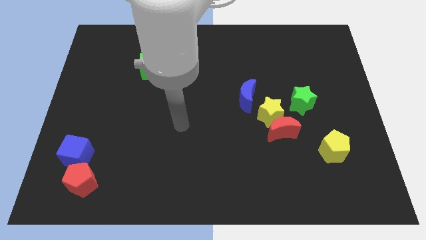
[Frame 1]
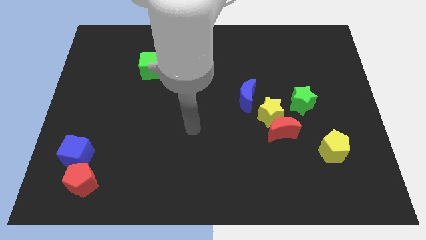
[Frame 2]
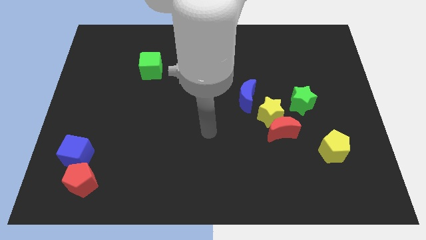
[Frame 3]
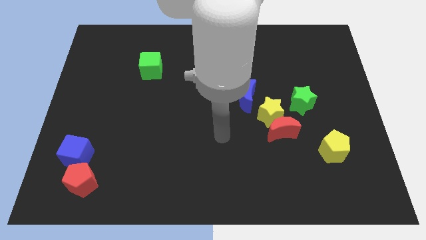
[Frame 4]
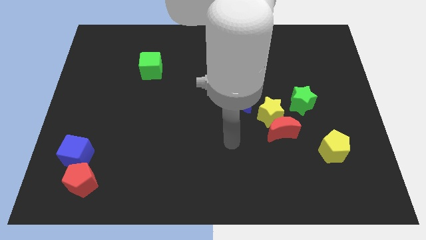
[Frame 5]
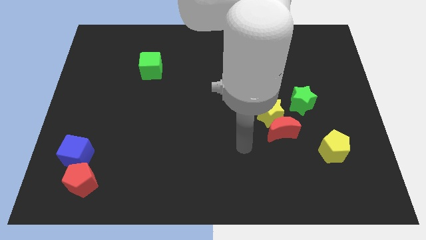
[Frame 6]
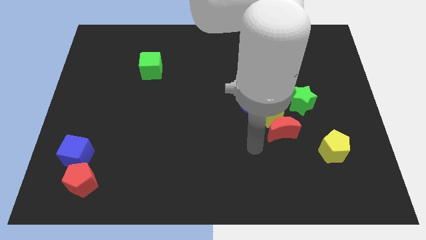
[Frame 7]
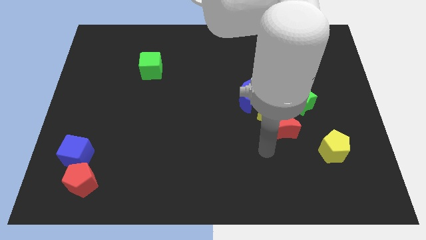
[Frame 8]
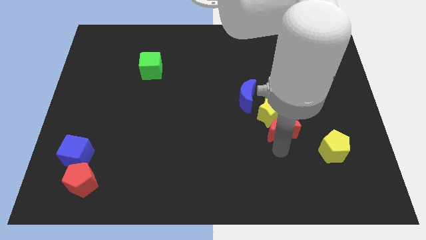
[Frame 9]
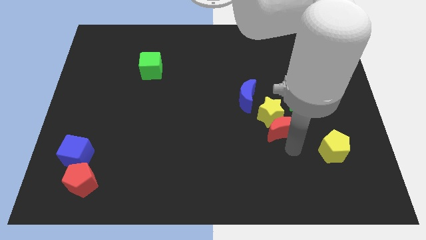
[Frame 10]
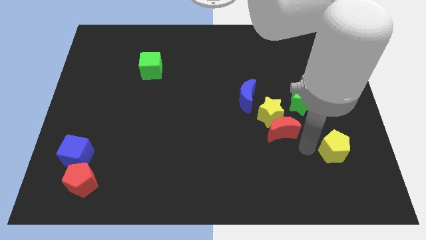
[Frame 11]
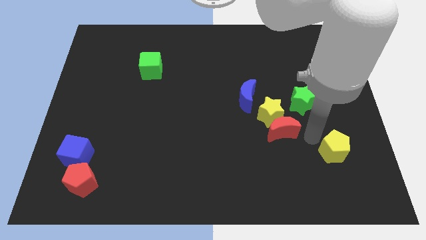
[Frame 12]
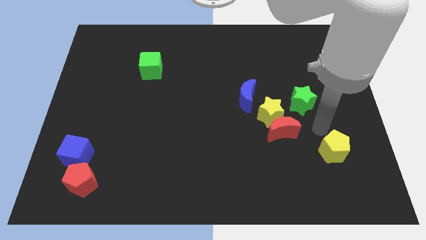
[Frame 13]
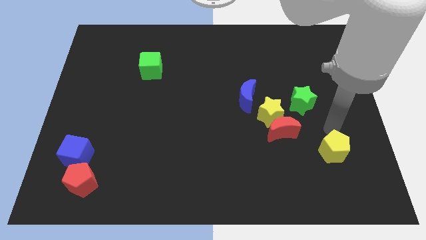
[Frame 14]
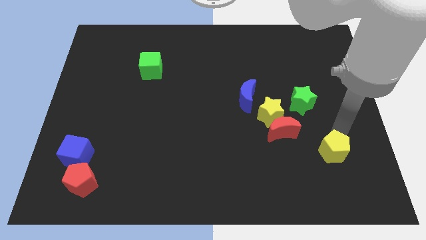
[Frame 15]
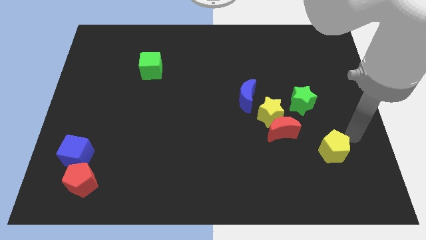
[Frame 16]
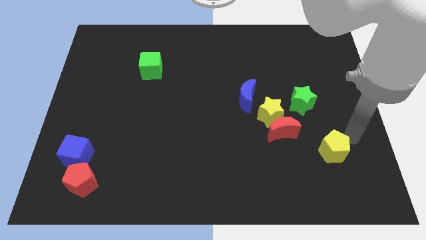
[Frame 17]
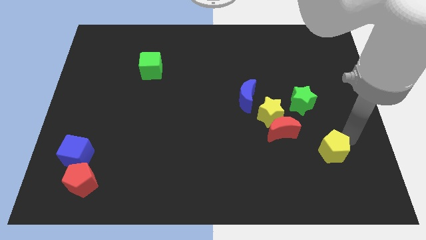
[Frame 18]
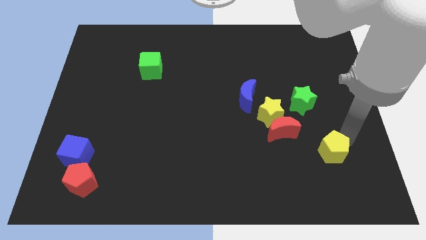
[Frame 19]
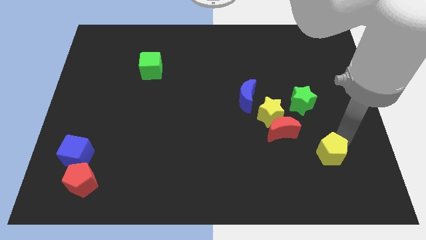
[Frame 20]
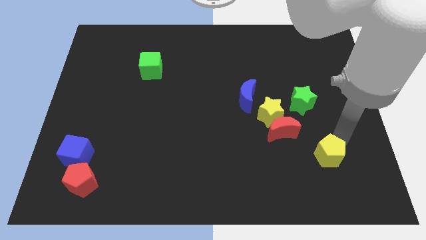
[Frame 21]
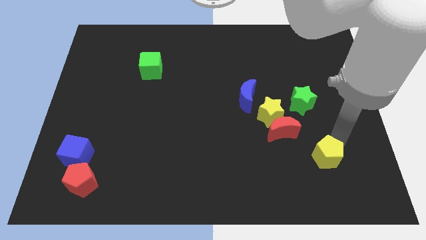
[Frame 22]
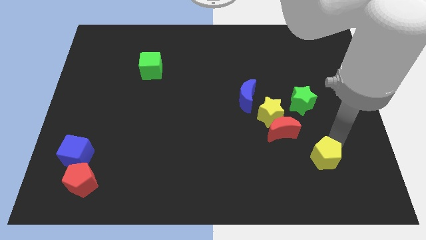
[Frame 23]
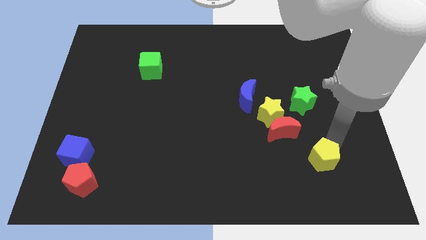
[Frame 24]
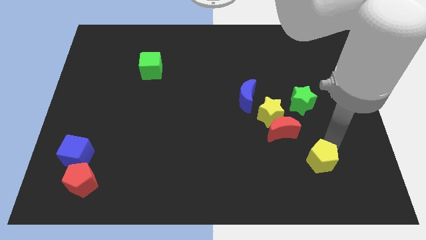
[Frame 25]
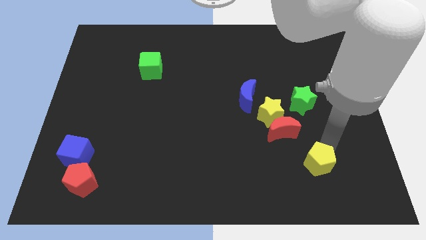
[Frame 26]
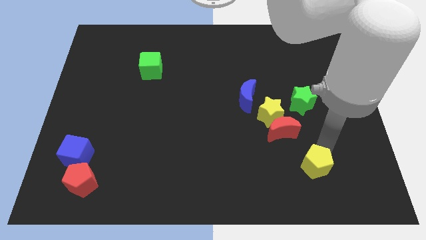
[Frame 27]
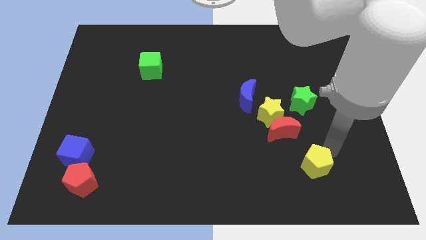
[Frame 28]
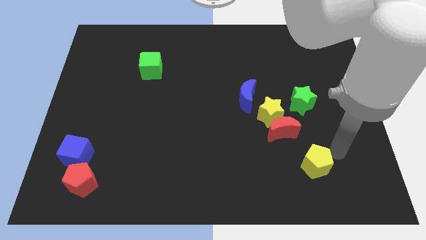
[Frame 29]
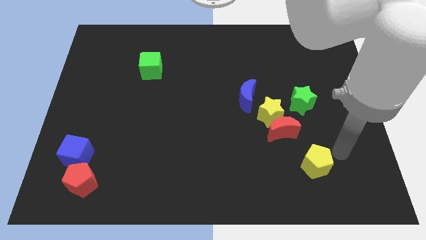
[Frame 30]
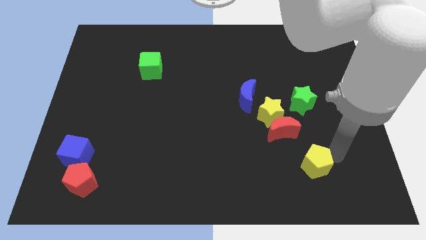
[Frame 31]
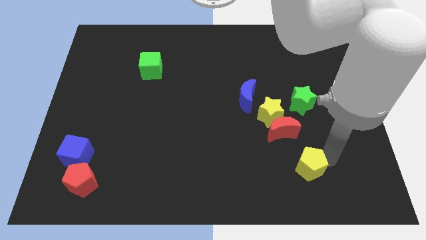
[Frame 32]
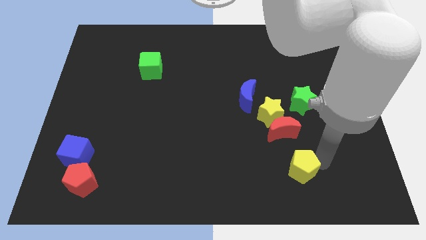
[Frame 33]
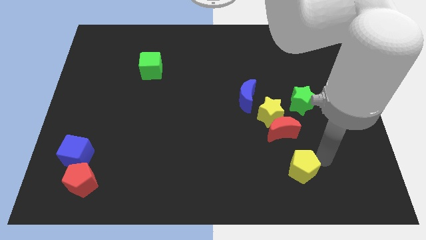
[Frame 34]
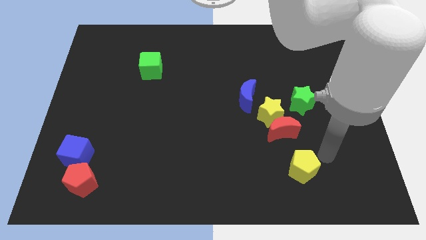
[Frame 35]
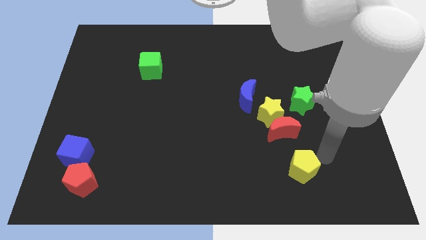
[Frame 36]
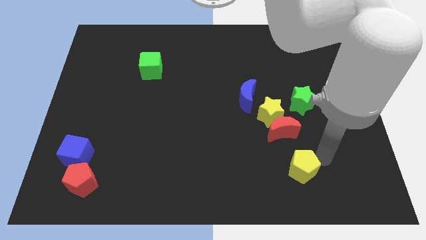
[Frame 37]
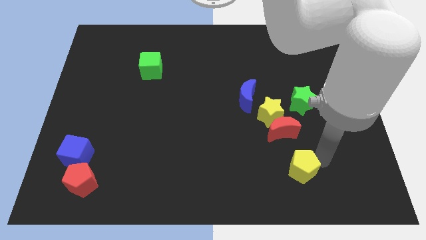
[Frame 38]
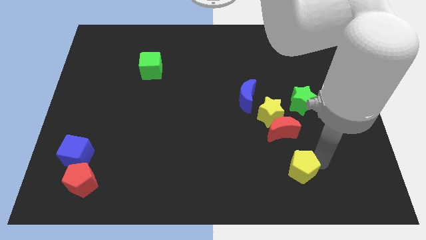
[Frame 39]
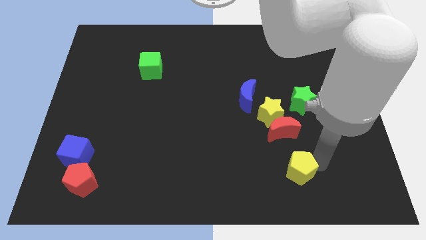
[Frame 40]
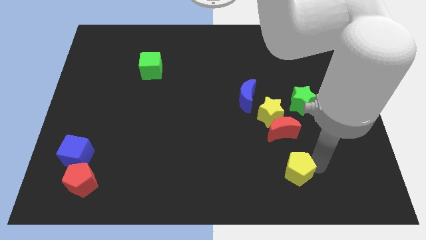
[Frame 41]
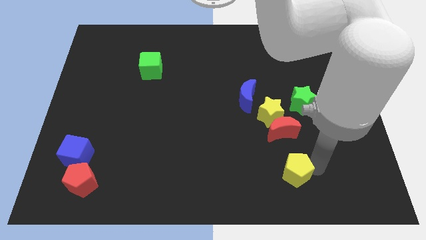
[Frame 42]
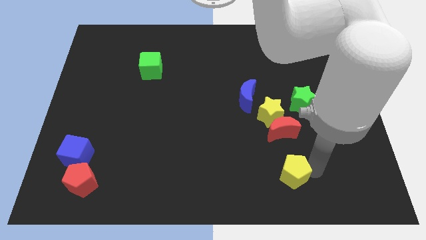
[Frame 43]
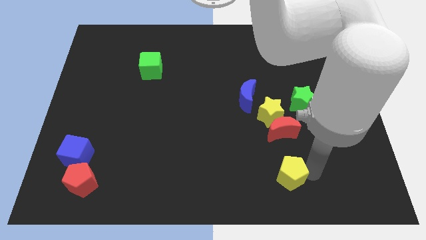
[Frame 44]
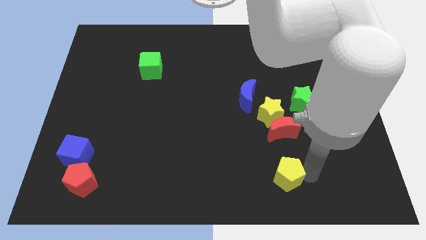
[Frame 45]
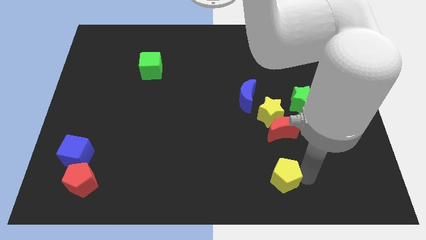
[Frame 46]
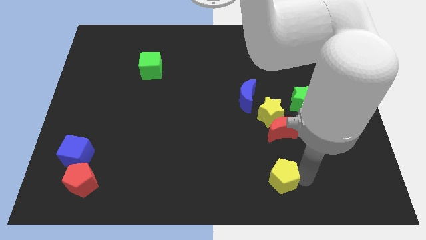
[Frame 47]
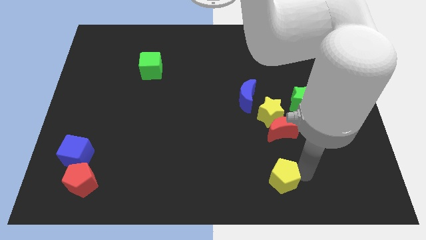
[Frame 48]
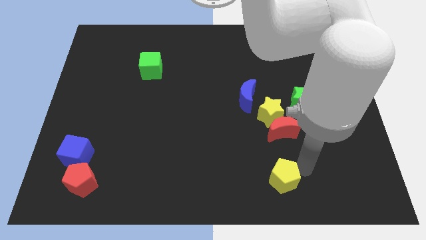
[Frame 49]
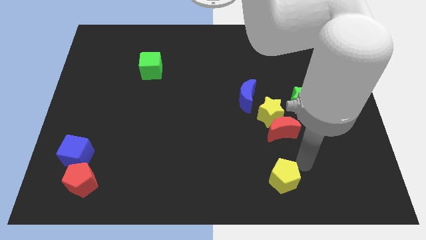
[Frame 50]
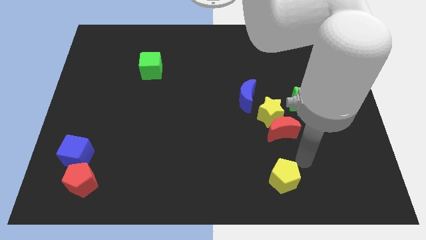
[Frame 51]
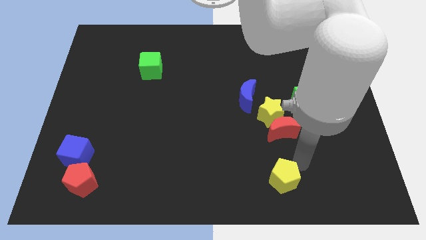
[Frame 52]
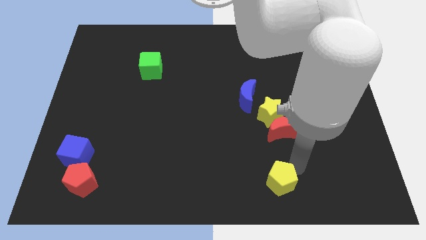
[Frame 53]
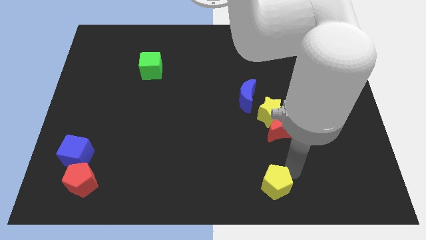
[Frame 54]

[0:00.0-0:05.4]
push the yellow pentagon to the bottom side

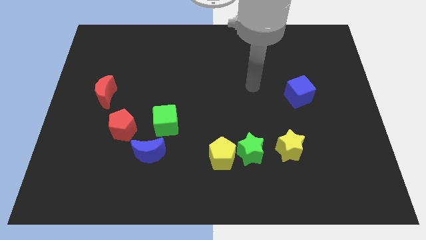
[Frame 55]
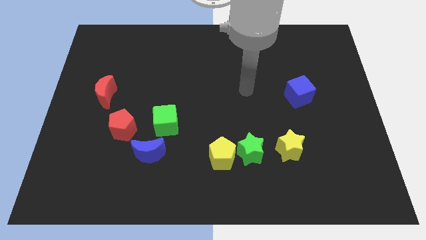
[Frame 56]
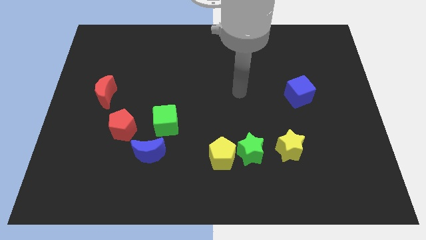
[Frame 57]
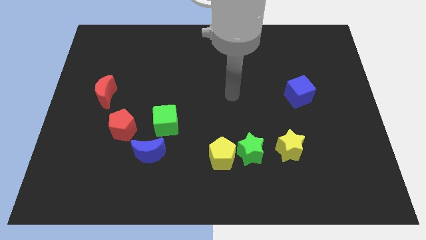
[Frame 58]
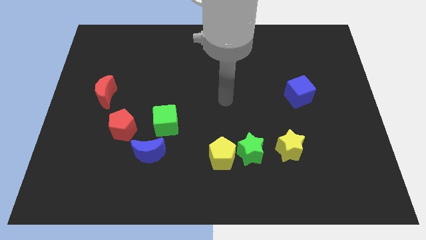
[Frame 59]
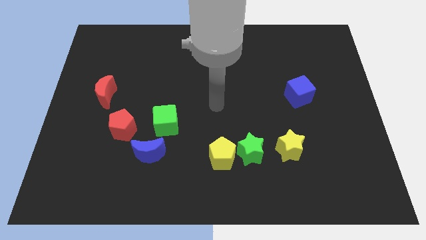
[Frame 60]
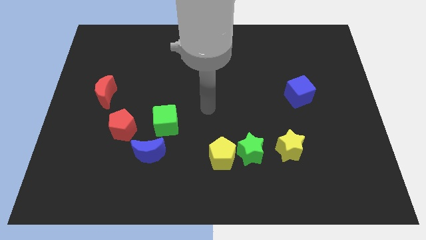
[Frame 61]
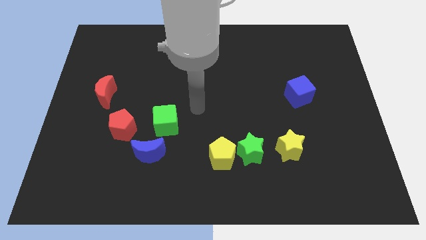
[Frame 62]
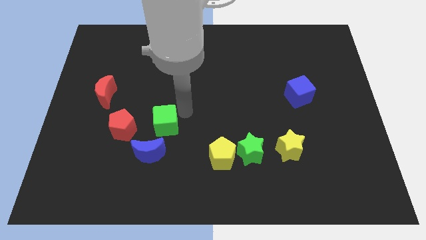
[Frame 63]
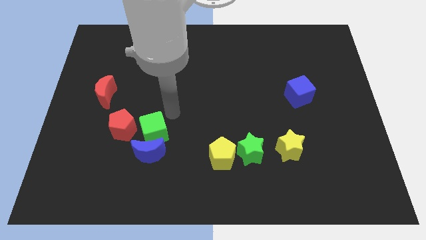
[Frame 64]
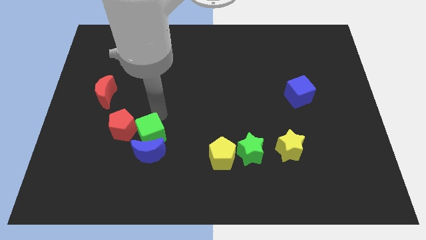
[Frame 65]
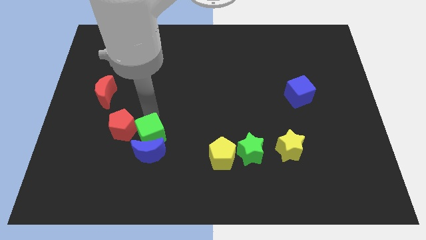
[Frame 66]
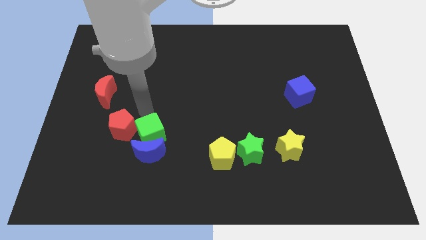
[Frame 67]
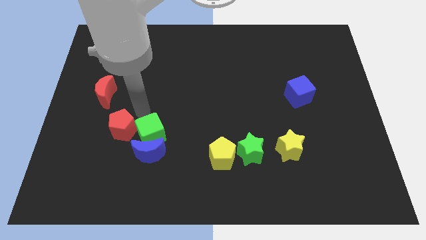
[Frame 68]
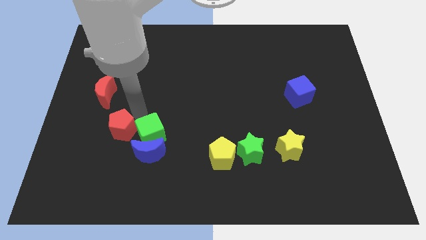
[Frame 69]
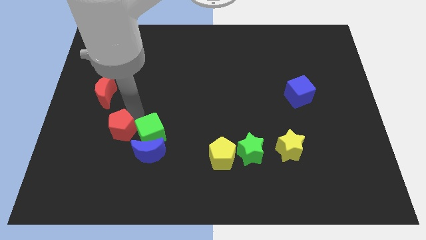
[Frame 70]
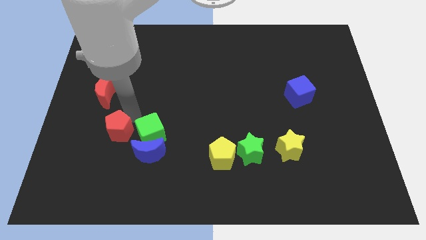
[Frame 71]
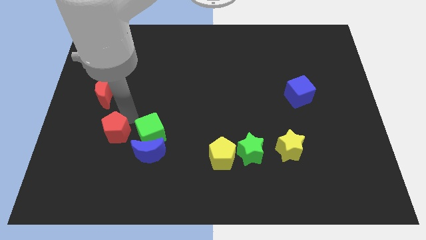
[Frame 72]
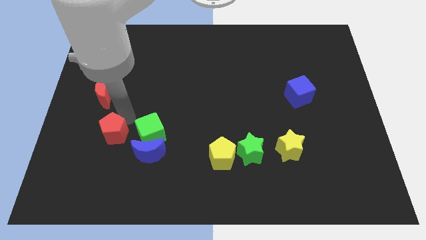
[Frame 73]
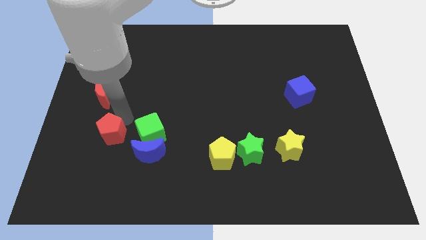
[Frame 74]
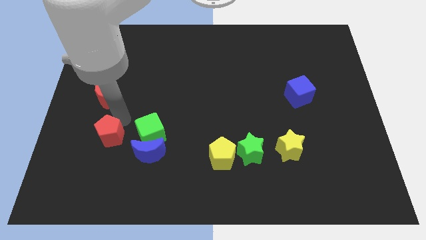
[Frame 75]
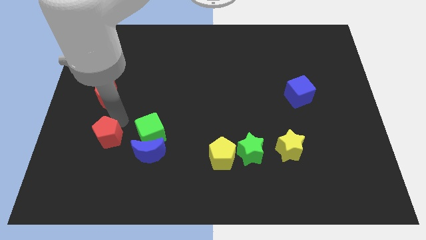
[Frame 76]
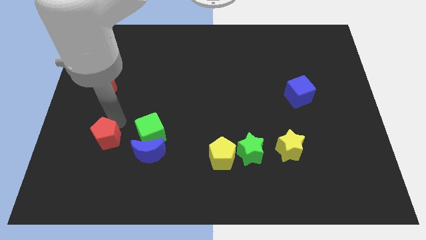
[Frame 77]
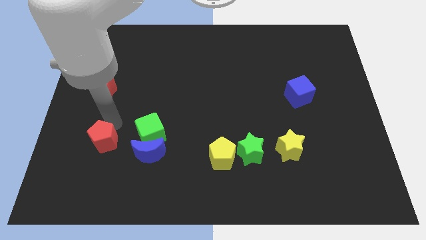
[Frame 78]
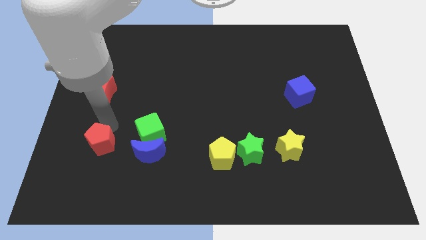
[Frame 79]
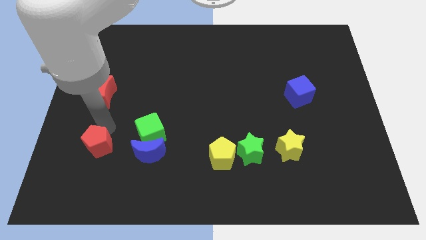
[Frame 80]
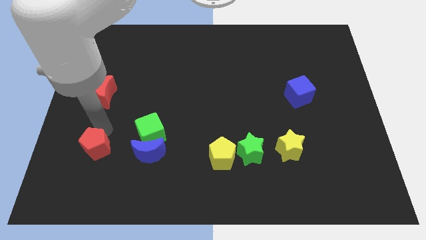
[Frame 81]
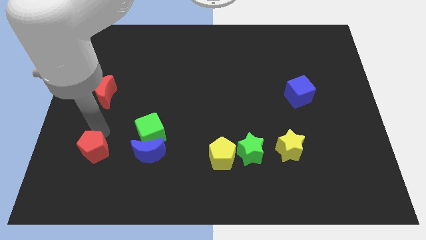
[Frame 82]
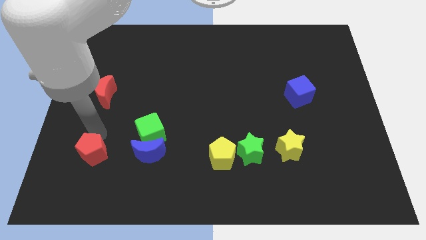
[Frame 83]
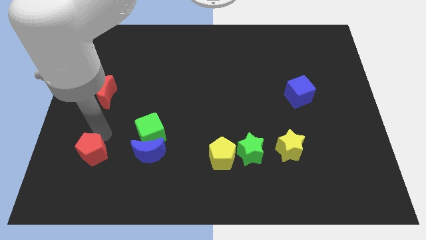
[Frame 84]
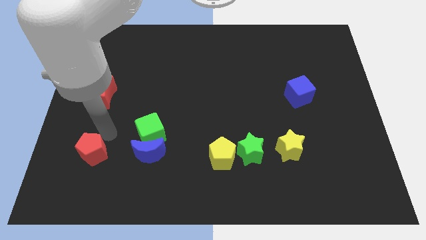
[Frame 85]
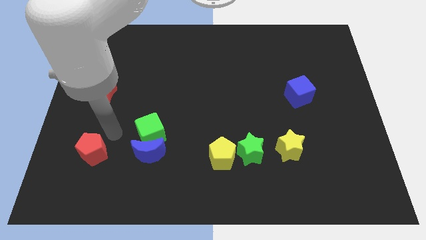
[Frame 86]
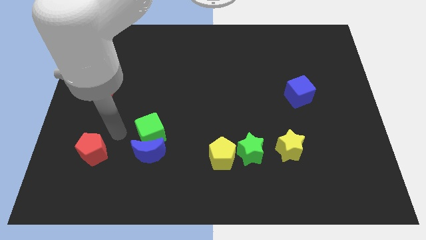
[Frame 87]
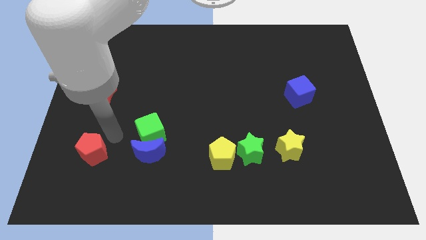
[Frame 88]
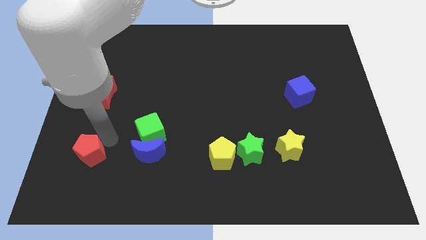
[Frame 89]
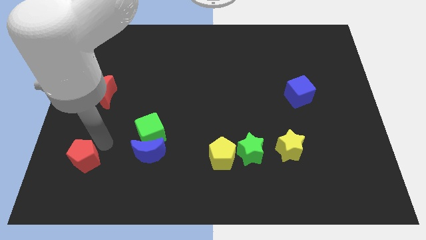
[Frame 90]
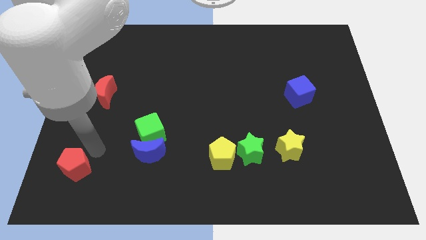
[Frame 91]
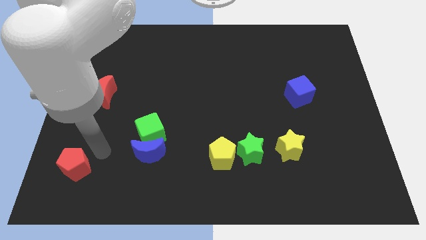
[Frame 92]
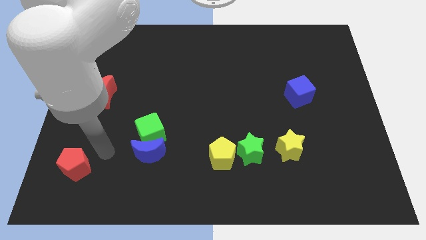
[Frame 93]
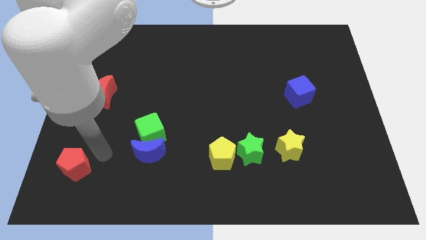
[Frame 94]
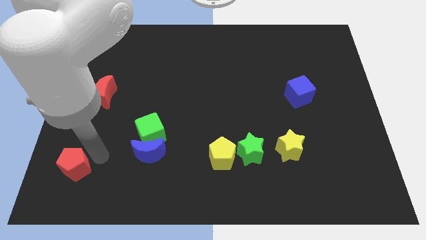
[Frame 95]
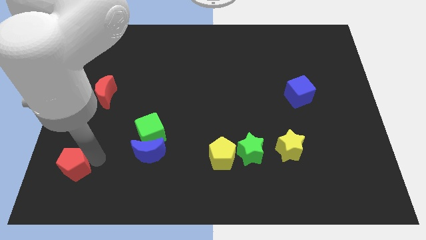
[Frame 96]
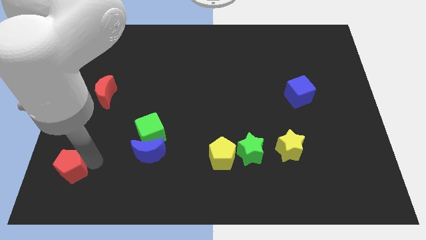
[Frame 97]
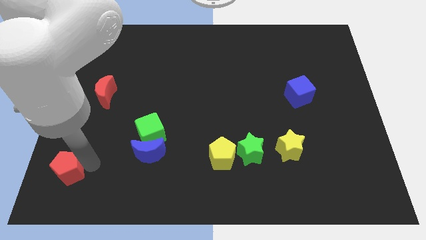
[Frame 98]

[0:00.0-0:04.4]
move the red pentagon to the bottom left corner
